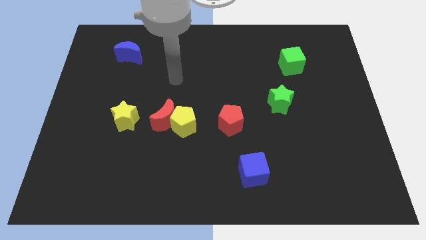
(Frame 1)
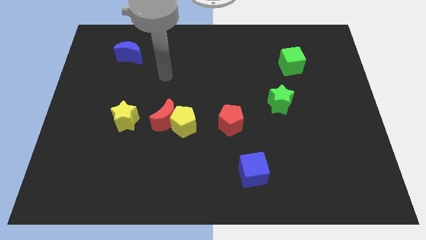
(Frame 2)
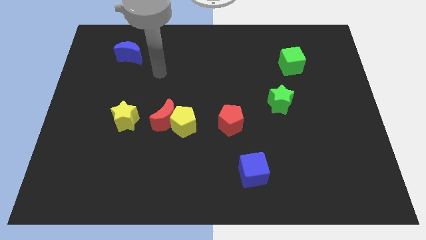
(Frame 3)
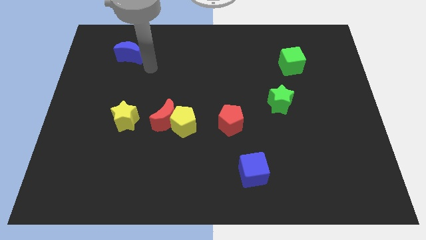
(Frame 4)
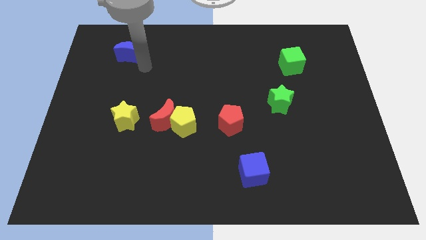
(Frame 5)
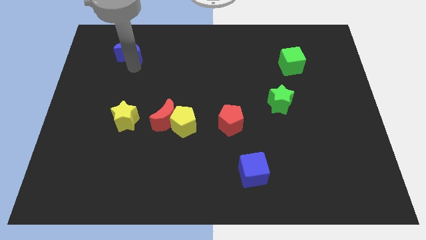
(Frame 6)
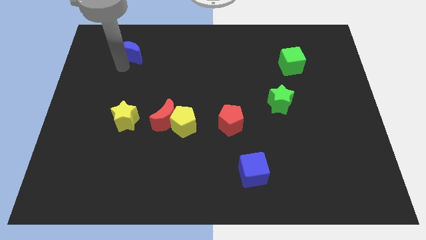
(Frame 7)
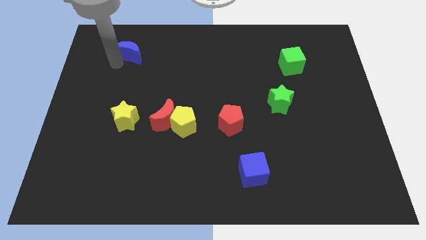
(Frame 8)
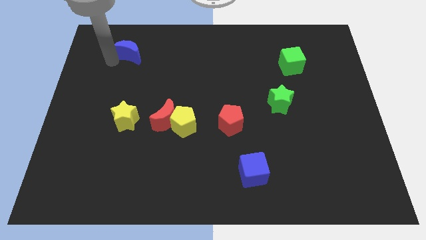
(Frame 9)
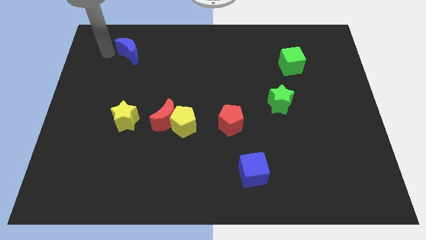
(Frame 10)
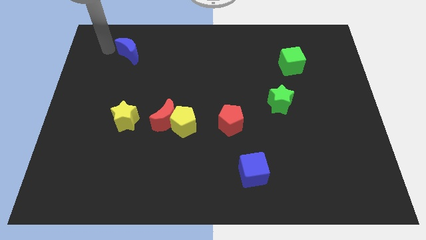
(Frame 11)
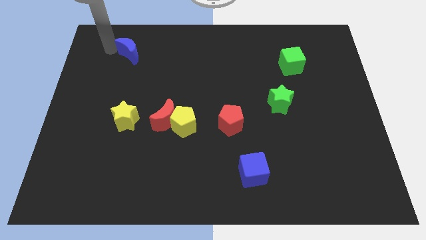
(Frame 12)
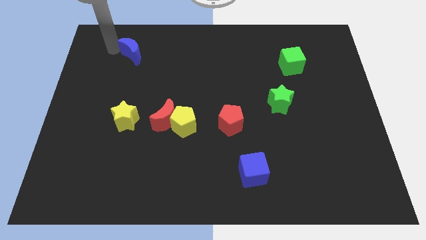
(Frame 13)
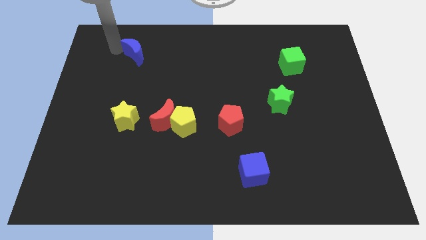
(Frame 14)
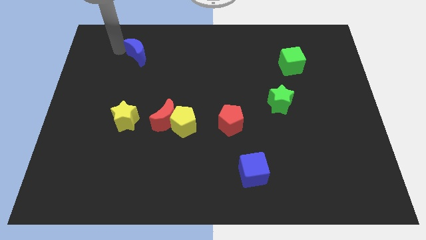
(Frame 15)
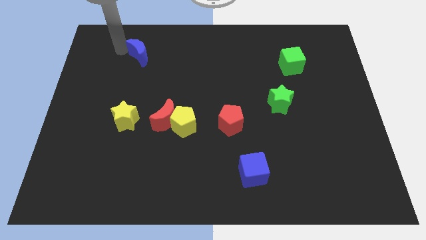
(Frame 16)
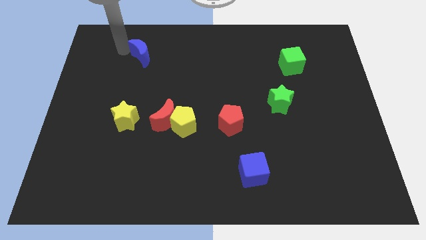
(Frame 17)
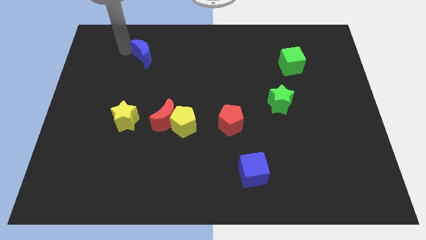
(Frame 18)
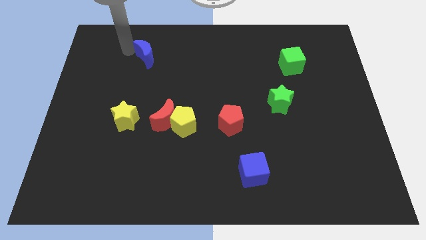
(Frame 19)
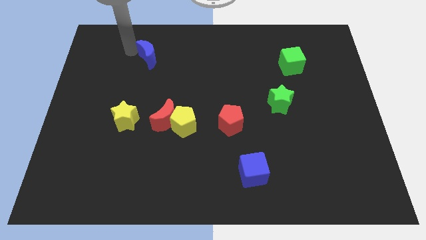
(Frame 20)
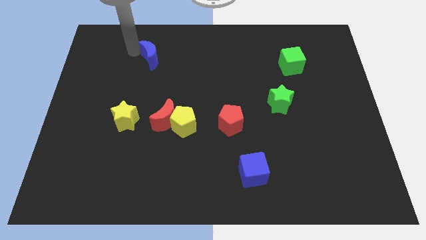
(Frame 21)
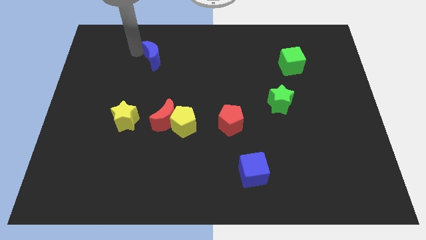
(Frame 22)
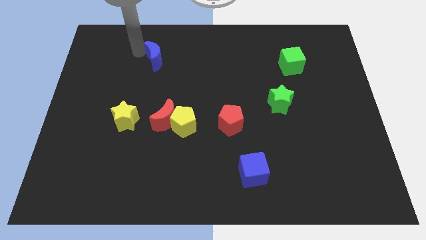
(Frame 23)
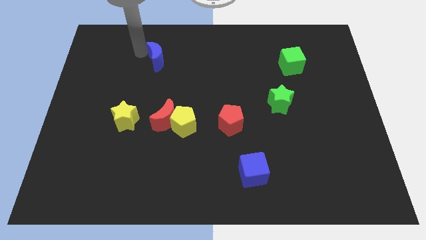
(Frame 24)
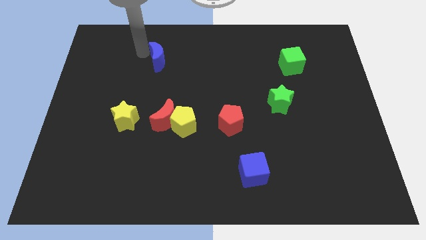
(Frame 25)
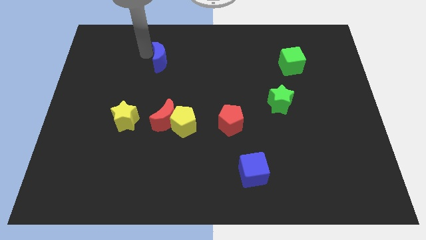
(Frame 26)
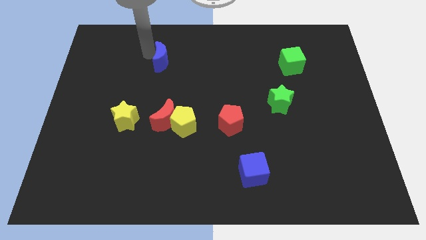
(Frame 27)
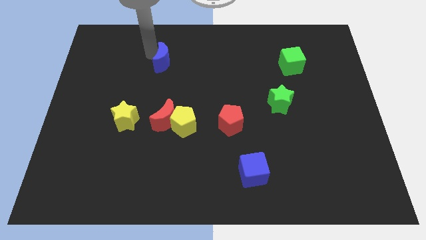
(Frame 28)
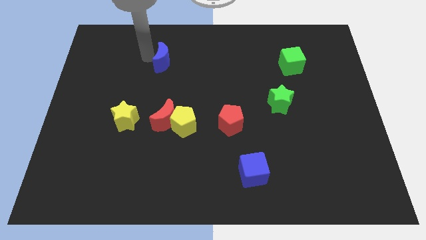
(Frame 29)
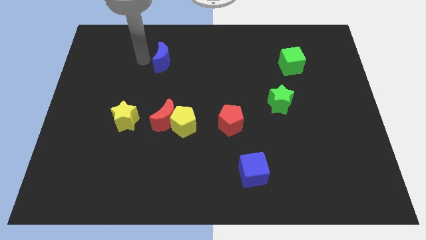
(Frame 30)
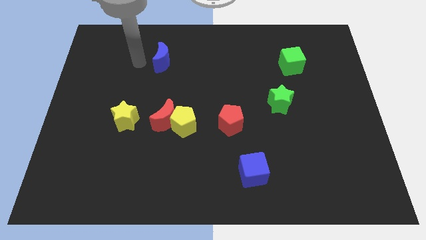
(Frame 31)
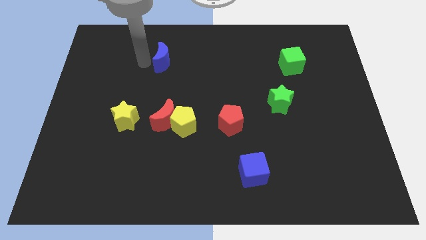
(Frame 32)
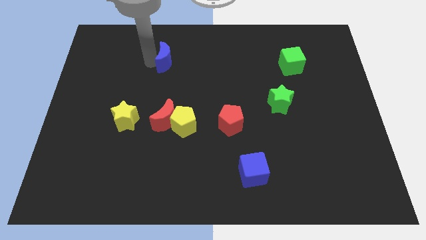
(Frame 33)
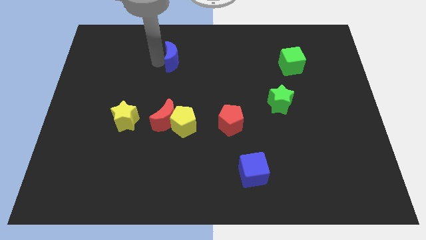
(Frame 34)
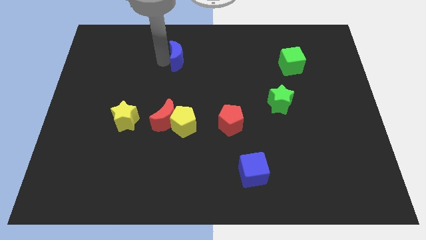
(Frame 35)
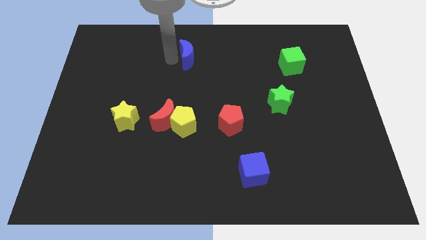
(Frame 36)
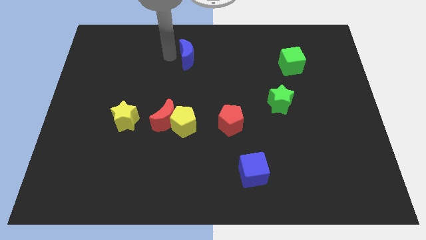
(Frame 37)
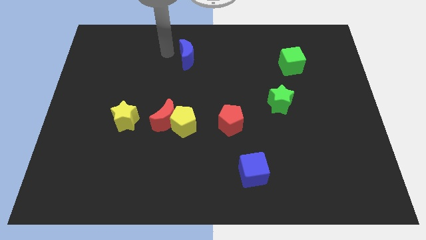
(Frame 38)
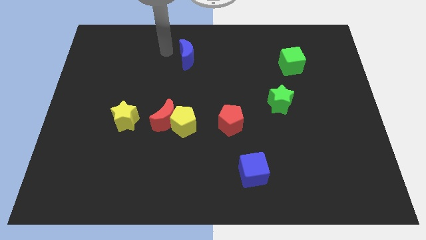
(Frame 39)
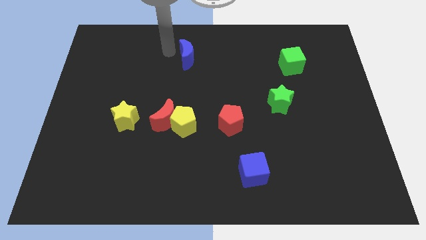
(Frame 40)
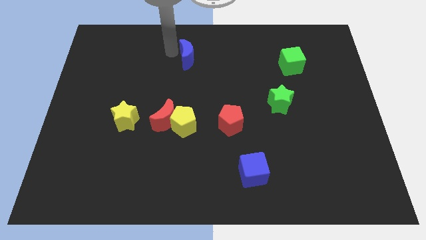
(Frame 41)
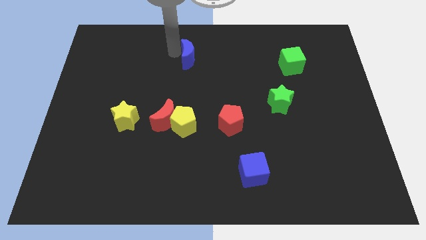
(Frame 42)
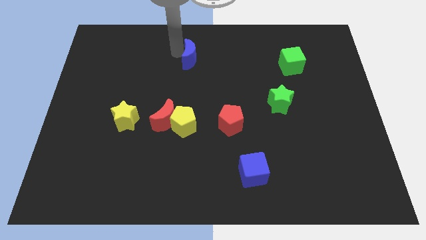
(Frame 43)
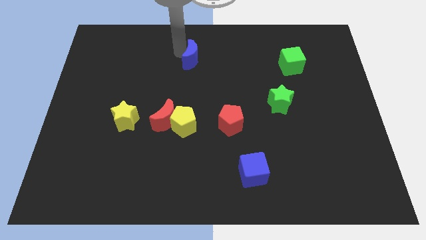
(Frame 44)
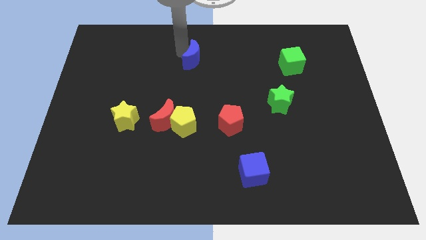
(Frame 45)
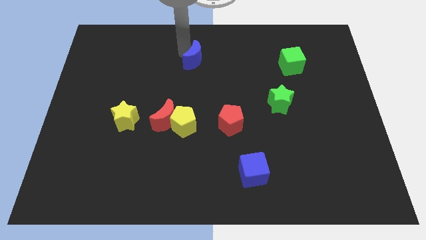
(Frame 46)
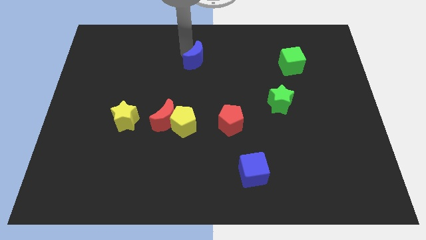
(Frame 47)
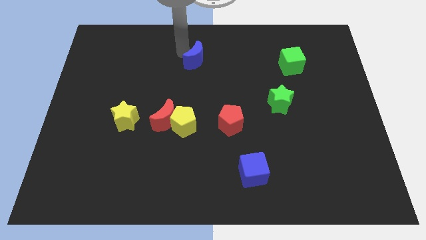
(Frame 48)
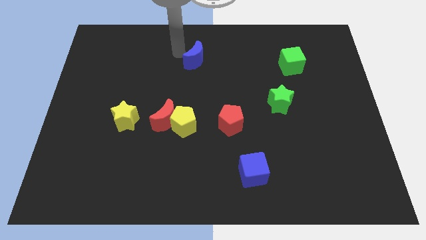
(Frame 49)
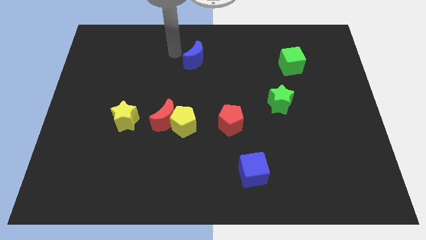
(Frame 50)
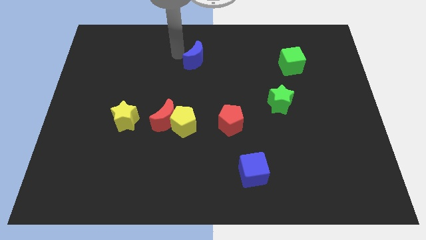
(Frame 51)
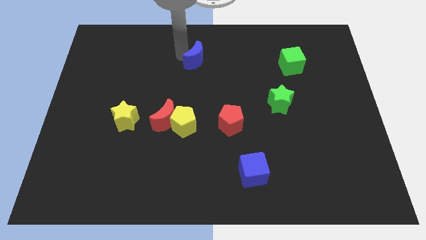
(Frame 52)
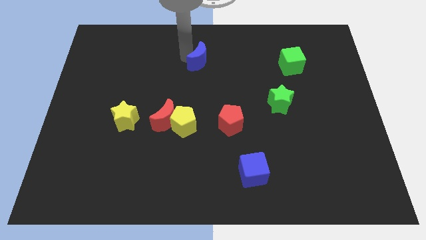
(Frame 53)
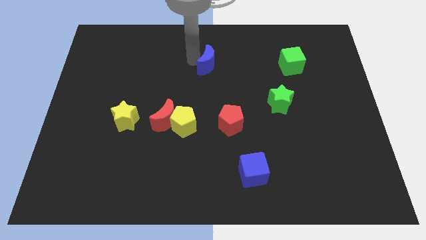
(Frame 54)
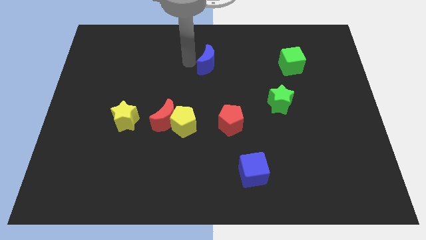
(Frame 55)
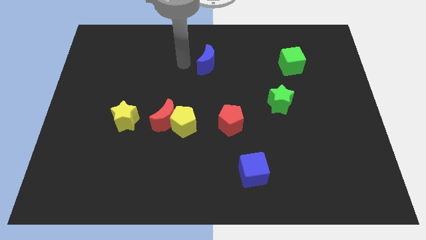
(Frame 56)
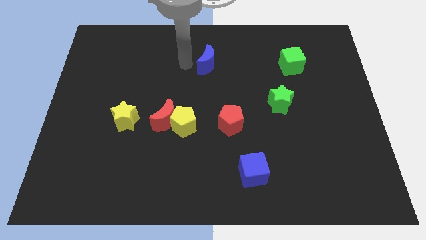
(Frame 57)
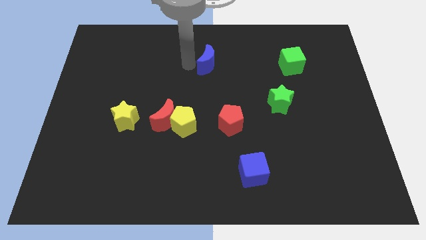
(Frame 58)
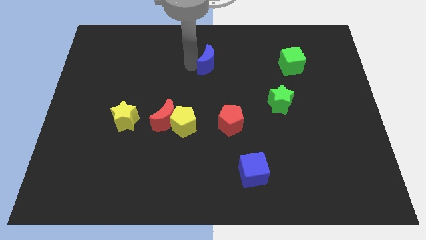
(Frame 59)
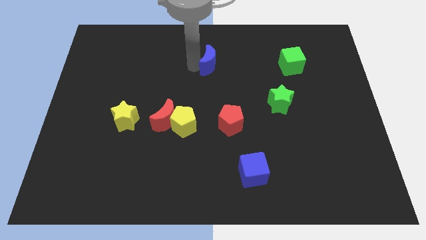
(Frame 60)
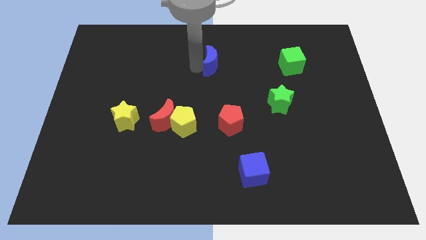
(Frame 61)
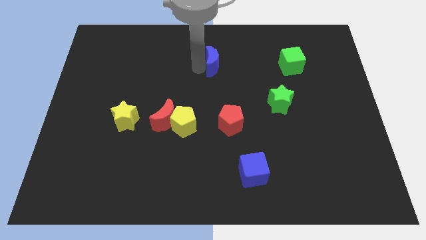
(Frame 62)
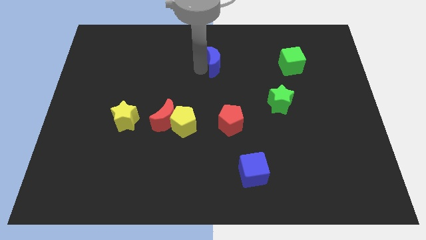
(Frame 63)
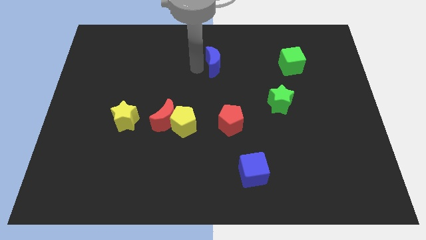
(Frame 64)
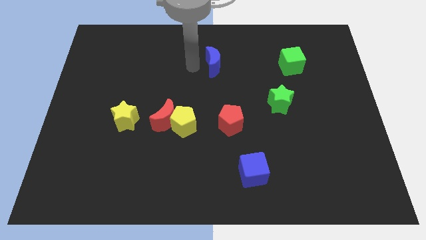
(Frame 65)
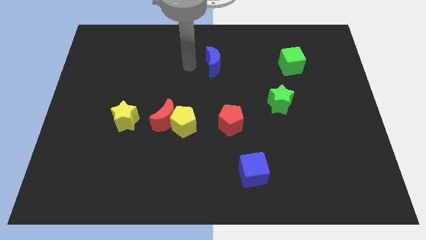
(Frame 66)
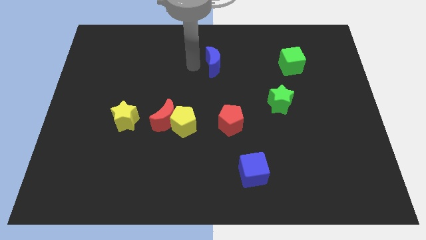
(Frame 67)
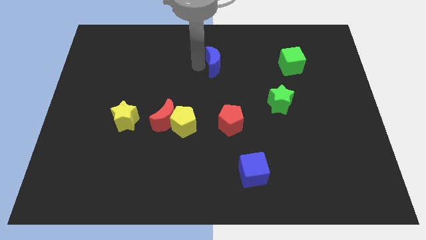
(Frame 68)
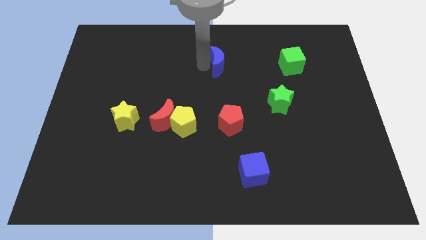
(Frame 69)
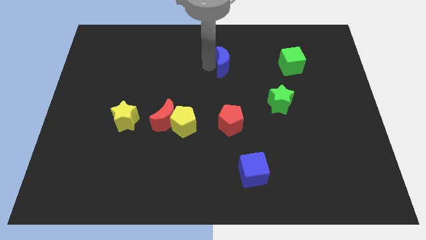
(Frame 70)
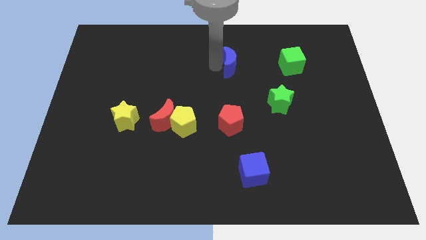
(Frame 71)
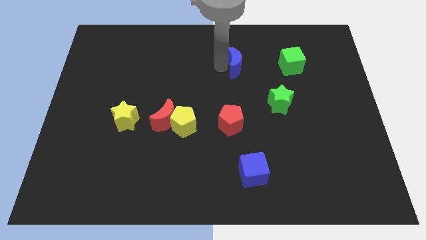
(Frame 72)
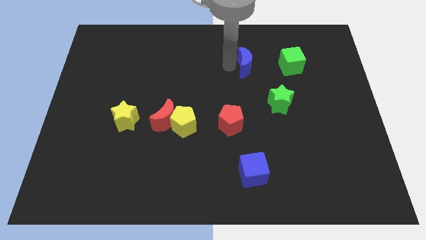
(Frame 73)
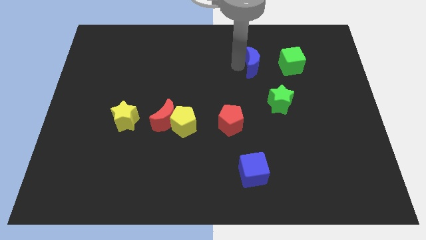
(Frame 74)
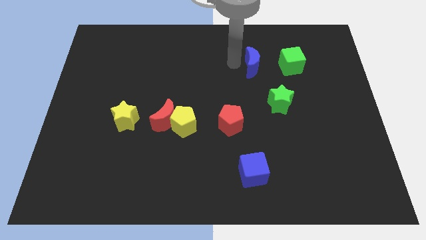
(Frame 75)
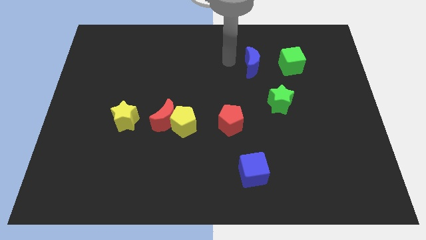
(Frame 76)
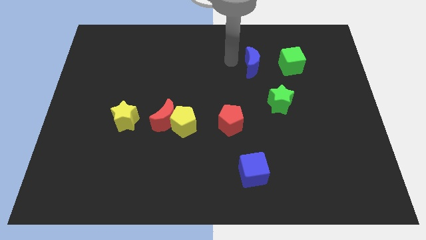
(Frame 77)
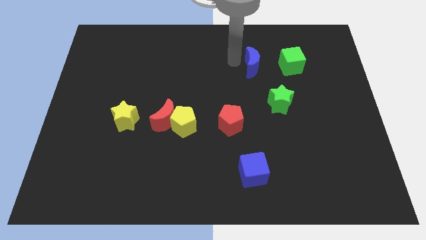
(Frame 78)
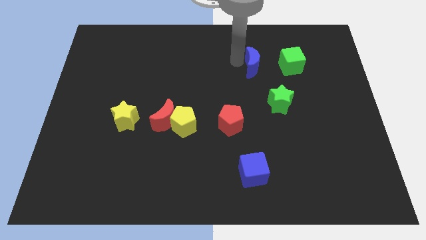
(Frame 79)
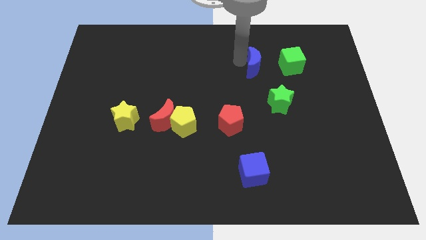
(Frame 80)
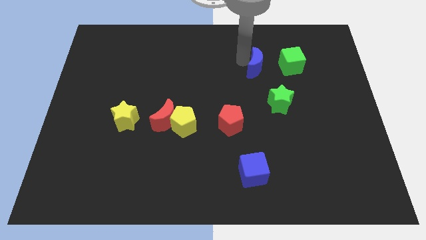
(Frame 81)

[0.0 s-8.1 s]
push the blue moon above the green star
